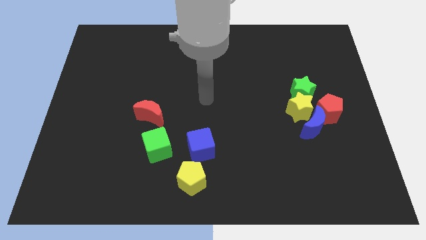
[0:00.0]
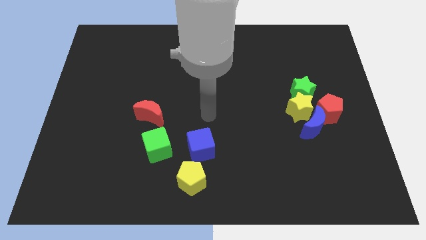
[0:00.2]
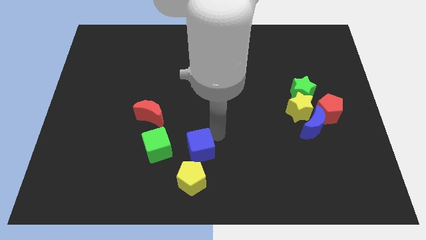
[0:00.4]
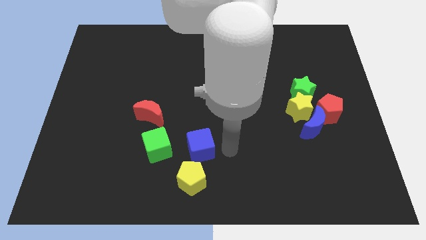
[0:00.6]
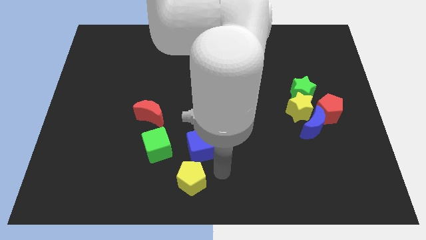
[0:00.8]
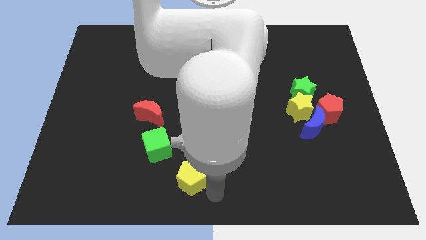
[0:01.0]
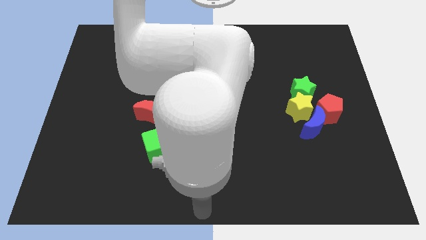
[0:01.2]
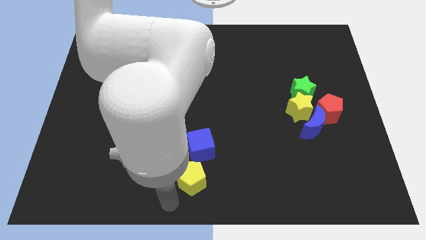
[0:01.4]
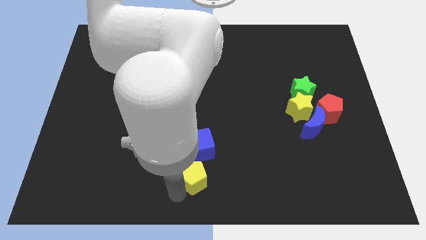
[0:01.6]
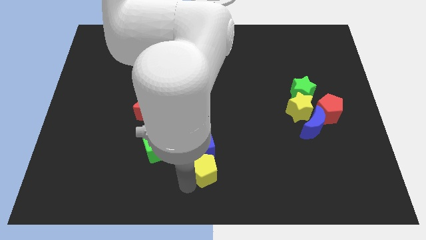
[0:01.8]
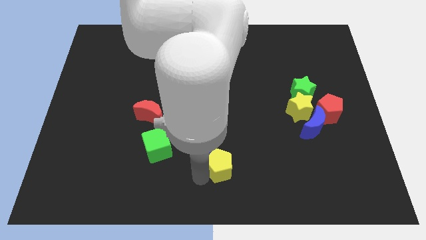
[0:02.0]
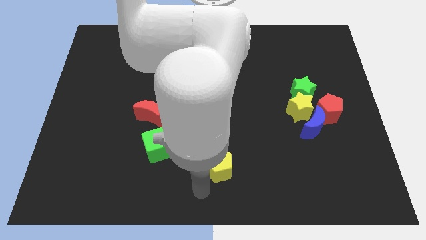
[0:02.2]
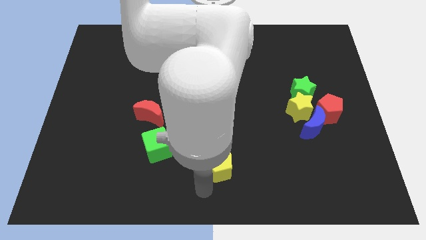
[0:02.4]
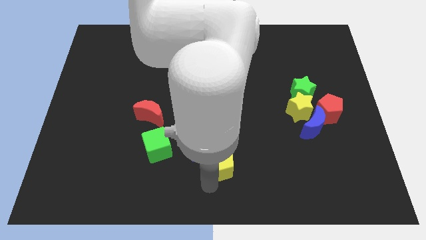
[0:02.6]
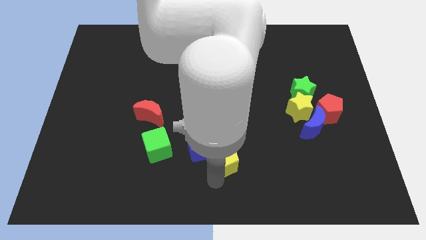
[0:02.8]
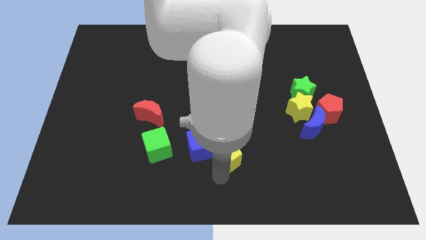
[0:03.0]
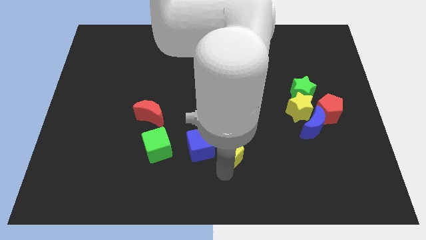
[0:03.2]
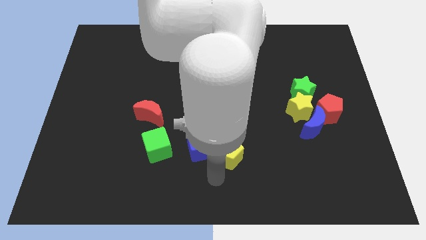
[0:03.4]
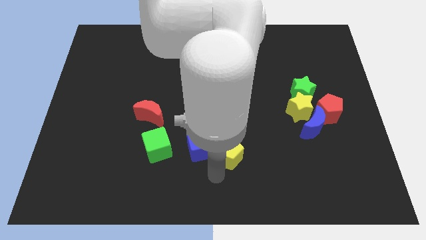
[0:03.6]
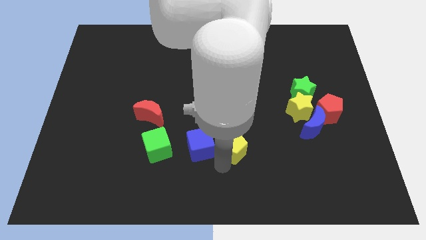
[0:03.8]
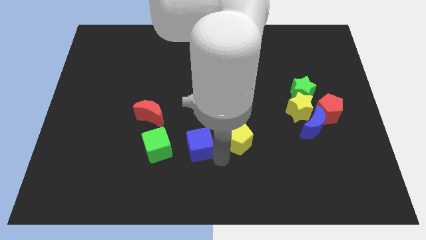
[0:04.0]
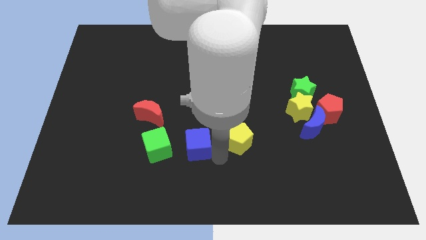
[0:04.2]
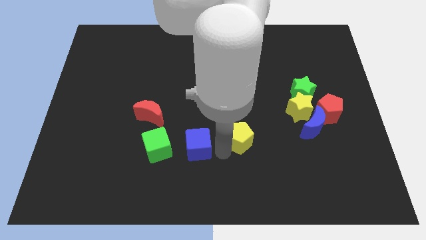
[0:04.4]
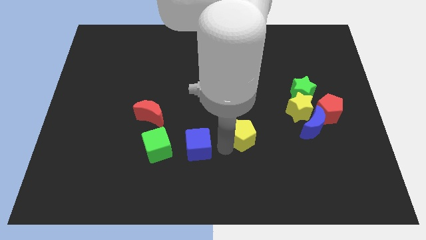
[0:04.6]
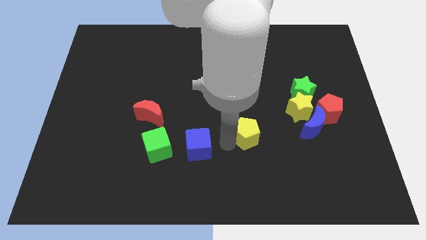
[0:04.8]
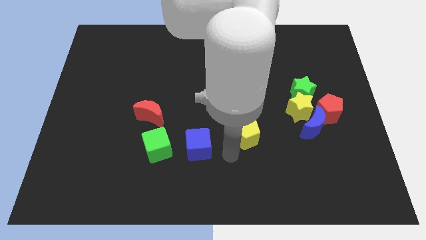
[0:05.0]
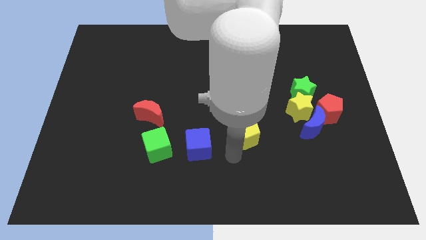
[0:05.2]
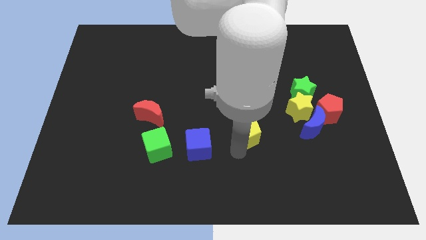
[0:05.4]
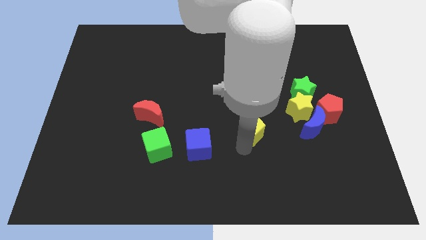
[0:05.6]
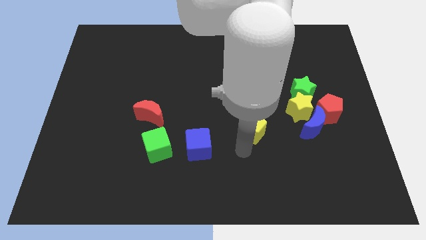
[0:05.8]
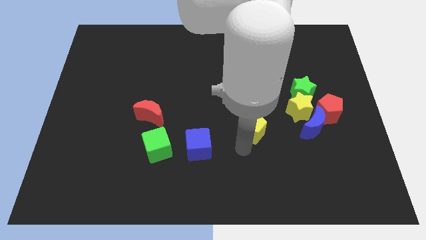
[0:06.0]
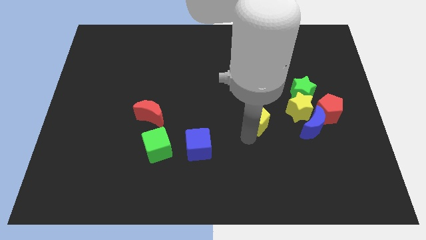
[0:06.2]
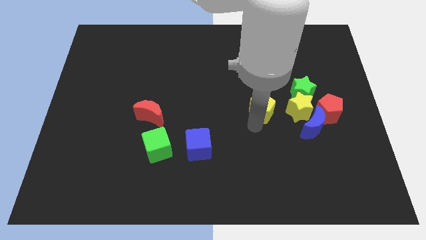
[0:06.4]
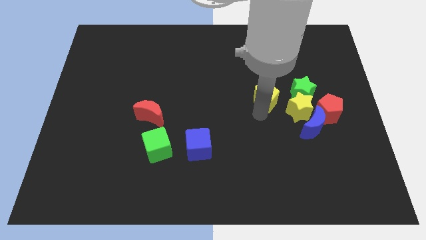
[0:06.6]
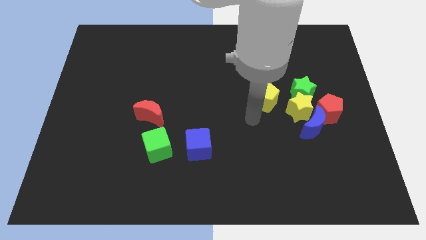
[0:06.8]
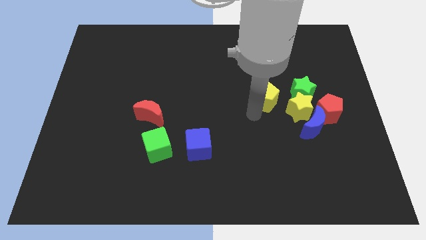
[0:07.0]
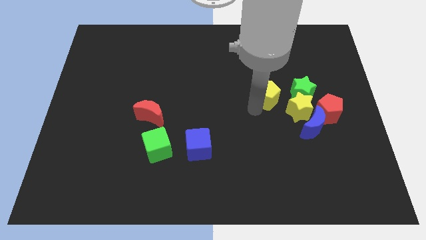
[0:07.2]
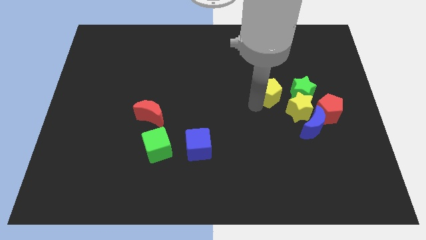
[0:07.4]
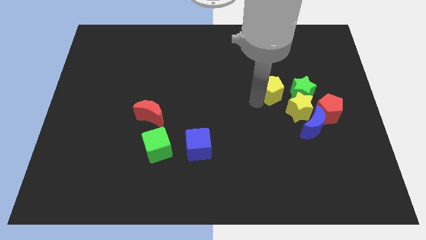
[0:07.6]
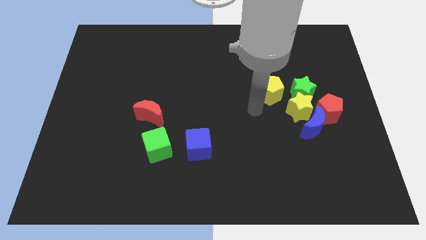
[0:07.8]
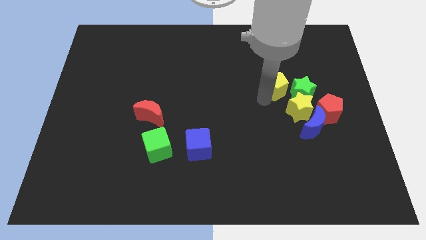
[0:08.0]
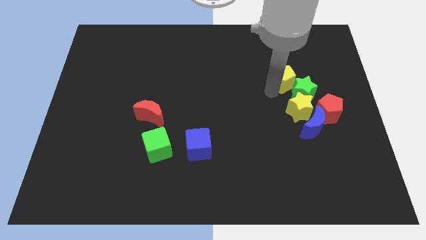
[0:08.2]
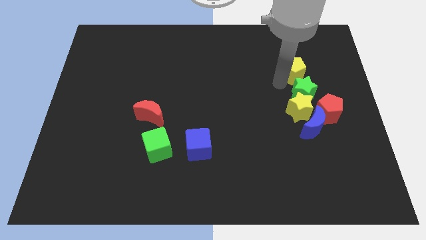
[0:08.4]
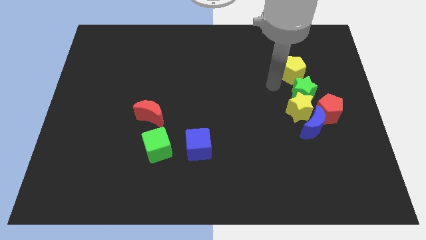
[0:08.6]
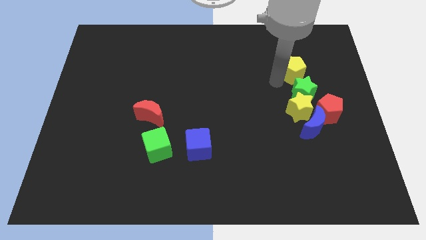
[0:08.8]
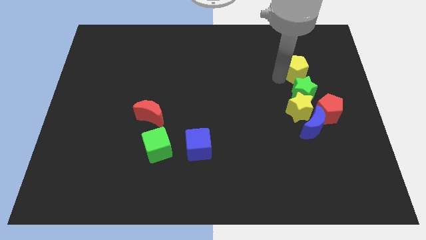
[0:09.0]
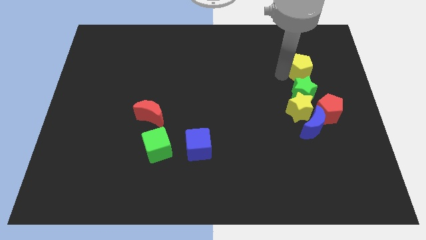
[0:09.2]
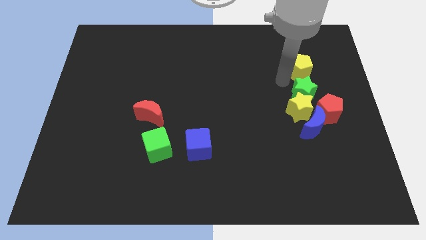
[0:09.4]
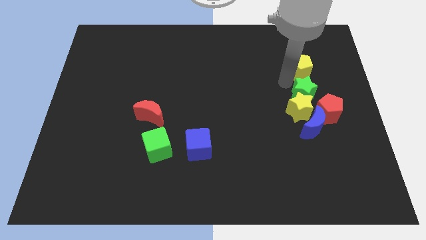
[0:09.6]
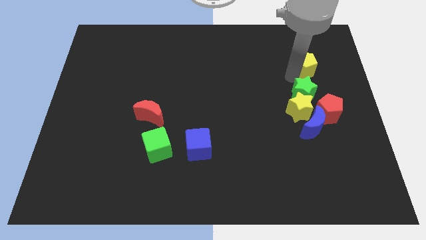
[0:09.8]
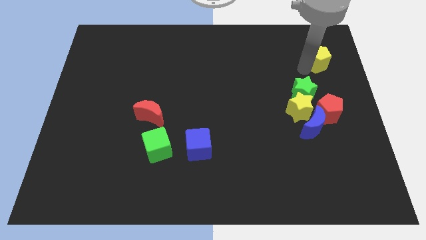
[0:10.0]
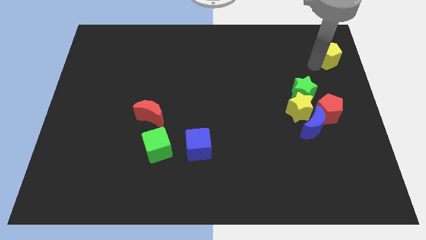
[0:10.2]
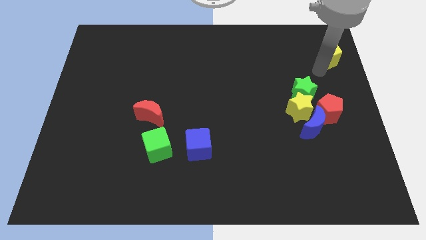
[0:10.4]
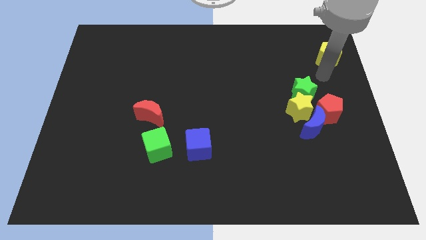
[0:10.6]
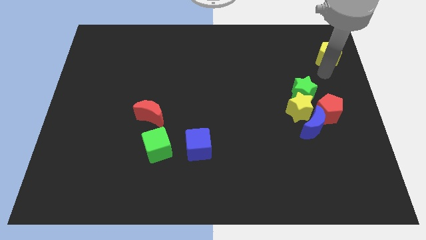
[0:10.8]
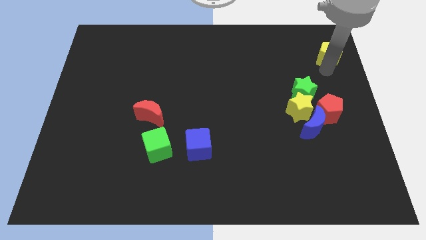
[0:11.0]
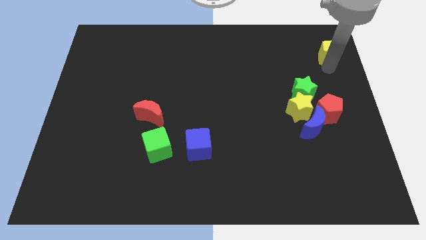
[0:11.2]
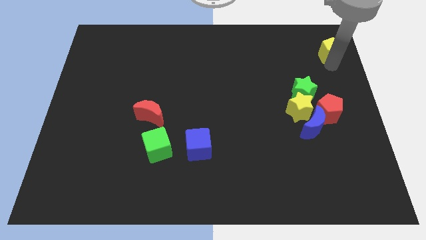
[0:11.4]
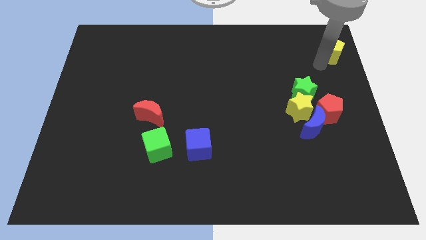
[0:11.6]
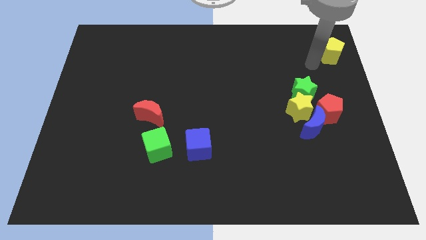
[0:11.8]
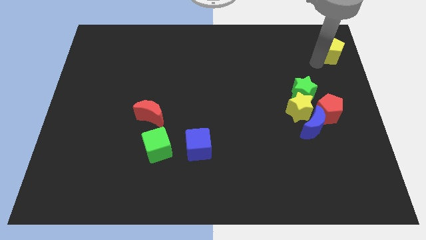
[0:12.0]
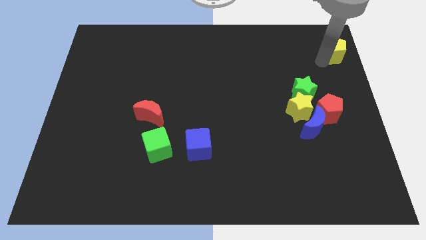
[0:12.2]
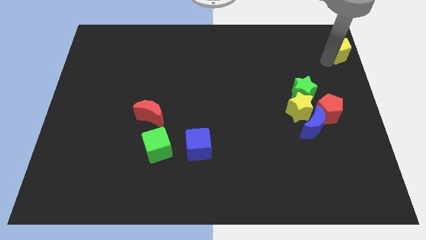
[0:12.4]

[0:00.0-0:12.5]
move the yellow pentagon to the top right corner
